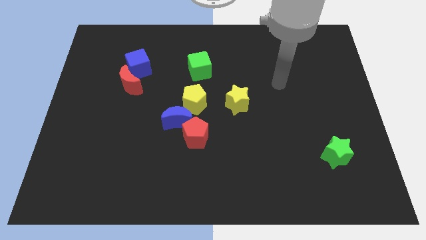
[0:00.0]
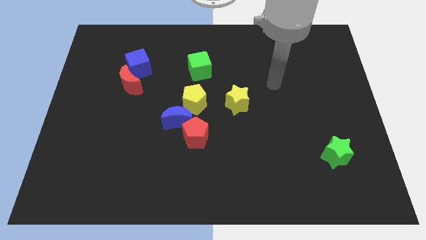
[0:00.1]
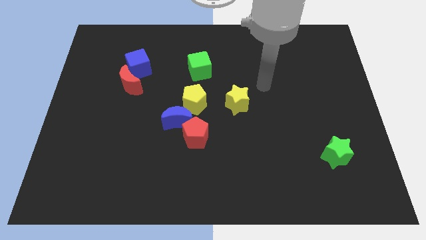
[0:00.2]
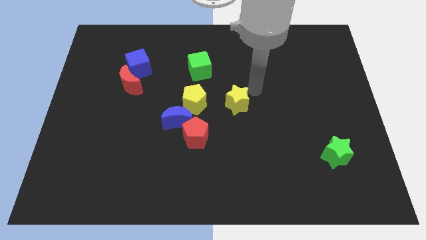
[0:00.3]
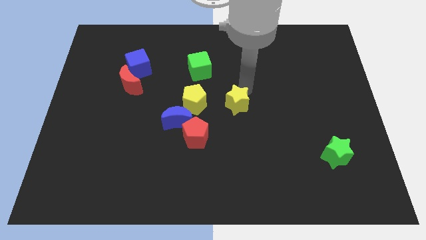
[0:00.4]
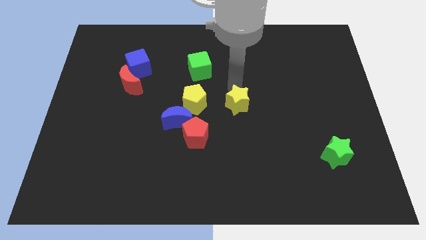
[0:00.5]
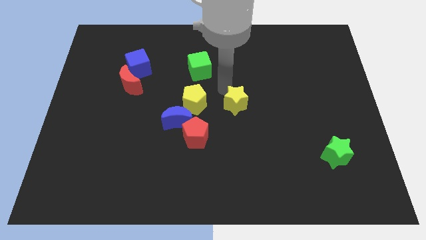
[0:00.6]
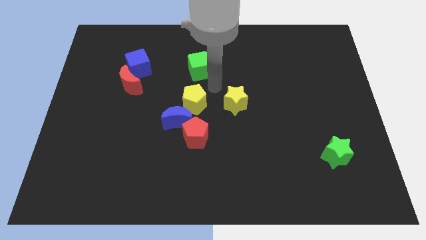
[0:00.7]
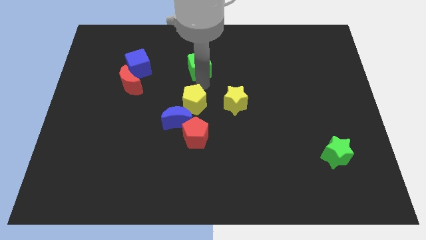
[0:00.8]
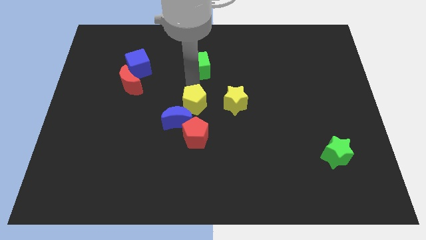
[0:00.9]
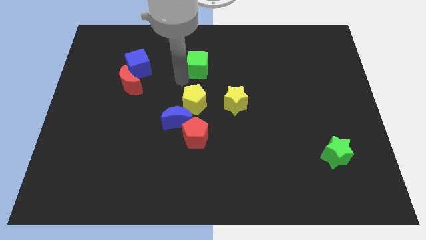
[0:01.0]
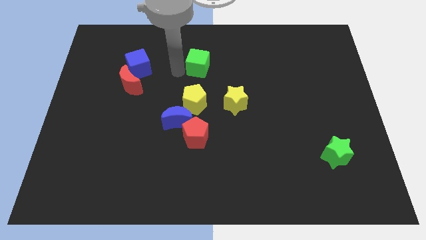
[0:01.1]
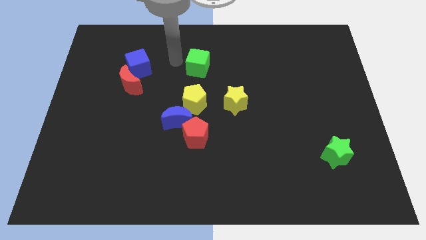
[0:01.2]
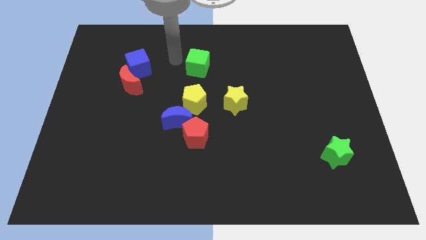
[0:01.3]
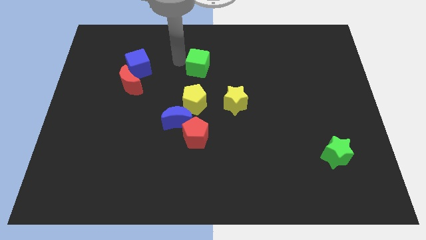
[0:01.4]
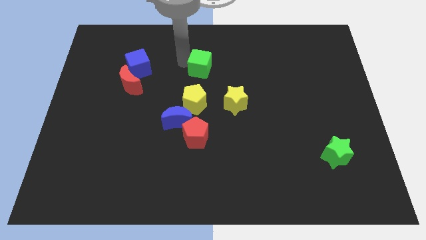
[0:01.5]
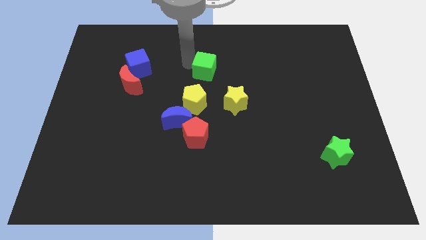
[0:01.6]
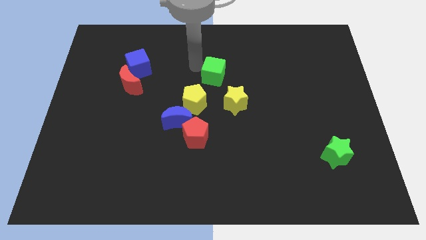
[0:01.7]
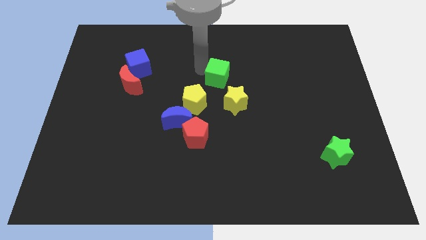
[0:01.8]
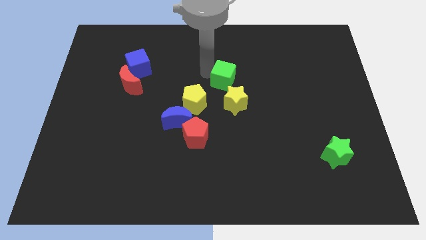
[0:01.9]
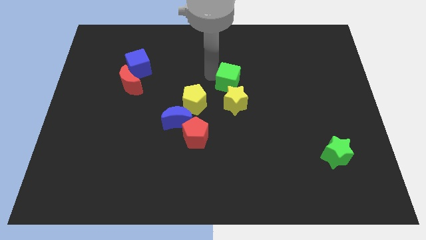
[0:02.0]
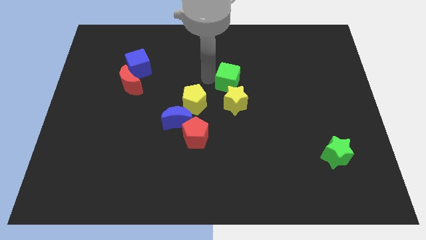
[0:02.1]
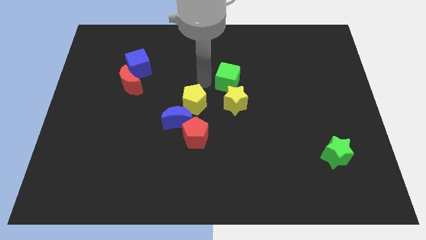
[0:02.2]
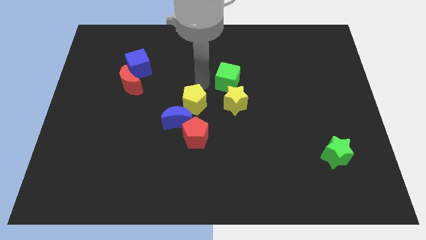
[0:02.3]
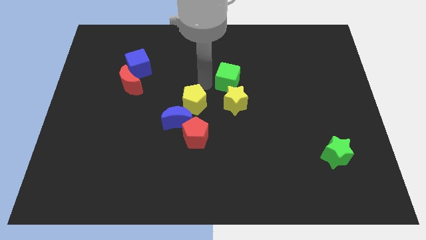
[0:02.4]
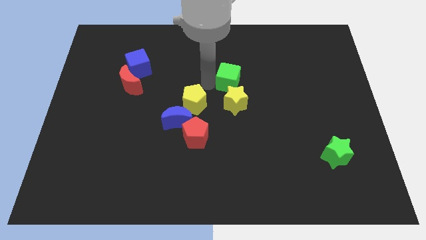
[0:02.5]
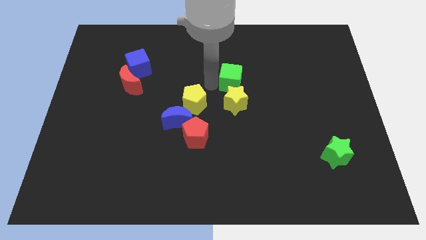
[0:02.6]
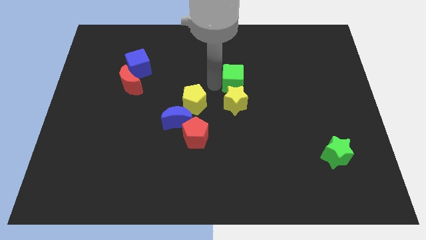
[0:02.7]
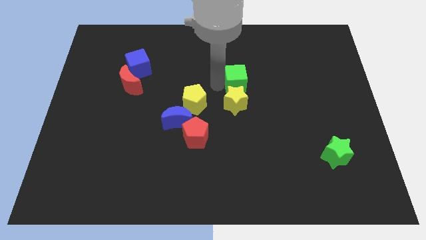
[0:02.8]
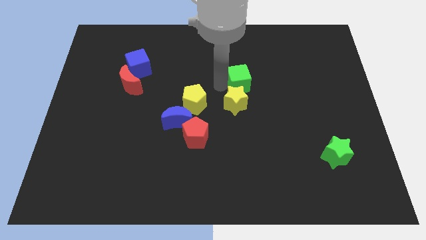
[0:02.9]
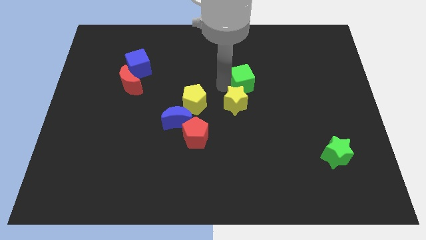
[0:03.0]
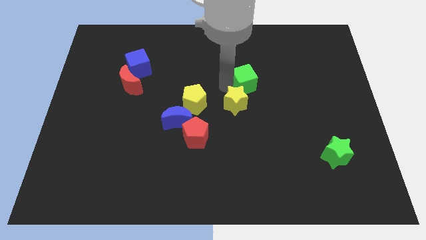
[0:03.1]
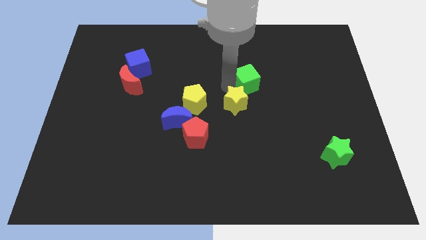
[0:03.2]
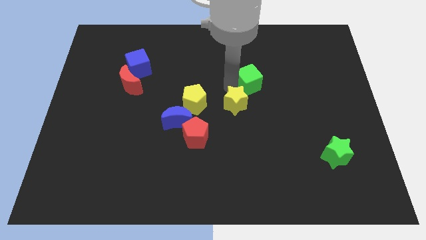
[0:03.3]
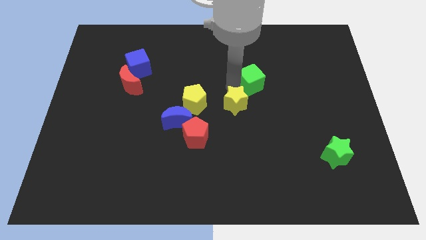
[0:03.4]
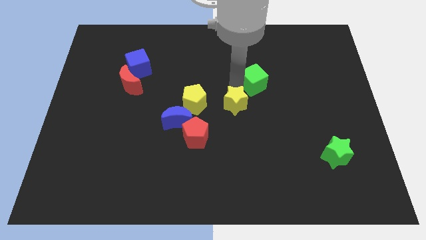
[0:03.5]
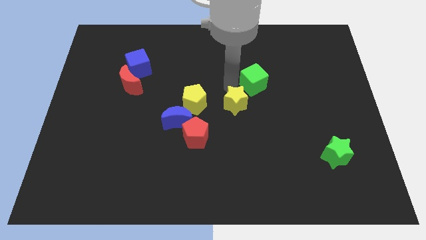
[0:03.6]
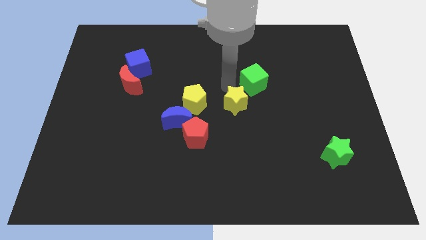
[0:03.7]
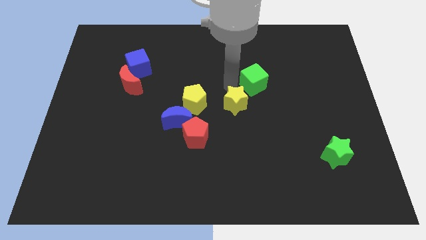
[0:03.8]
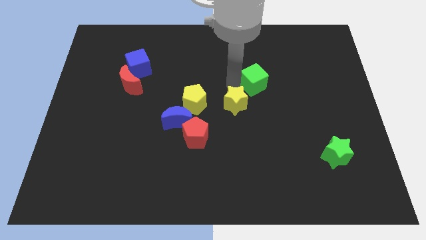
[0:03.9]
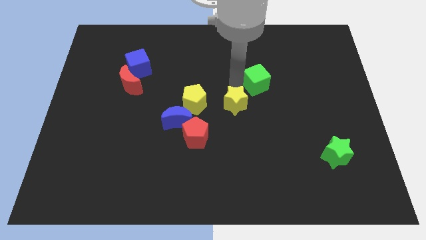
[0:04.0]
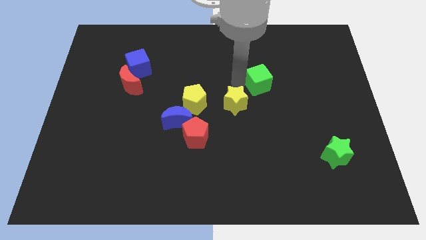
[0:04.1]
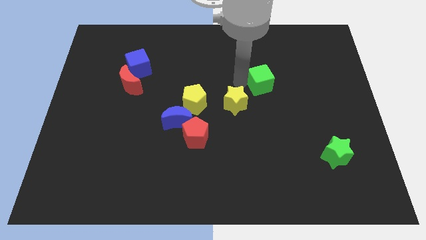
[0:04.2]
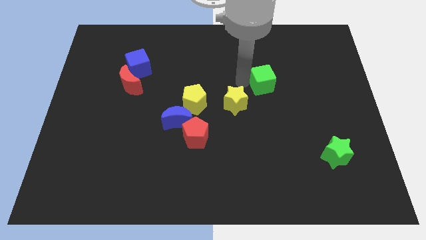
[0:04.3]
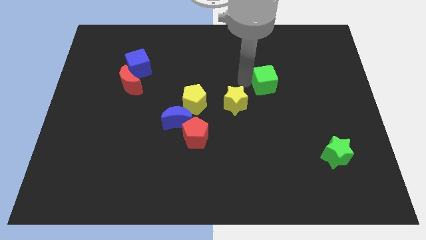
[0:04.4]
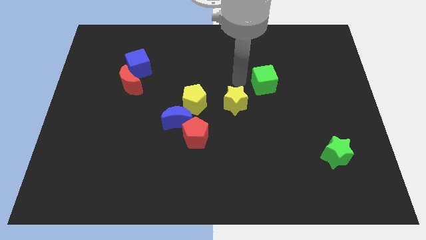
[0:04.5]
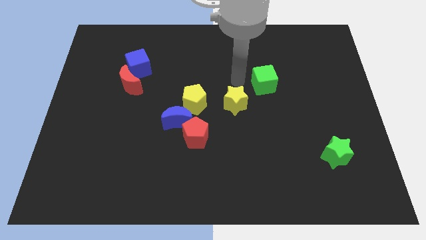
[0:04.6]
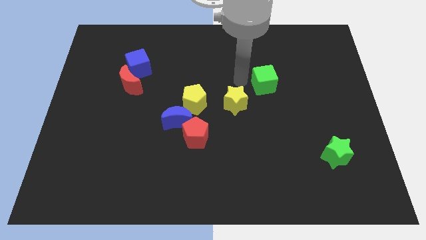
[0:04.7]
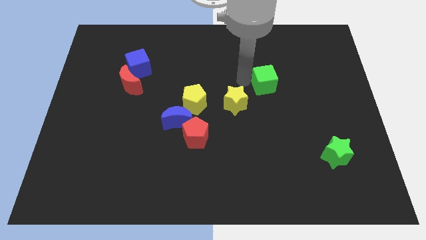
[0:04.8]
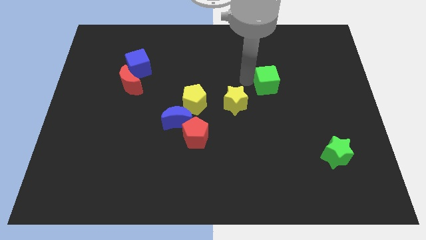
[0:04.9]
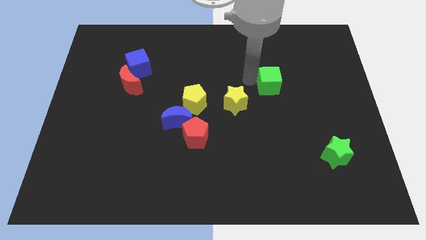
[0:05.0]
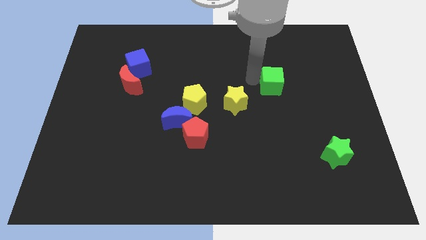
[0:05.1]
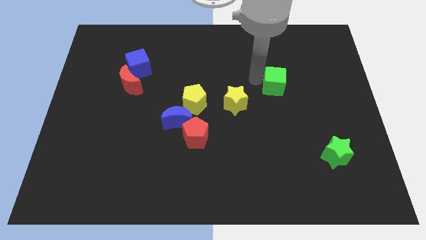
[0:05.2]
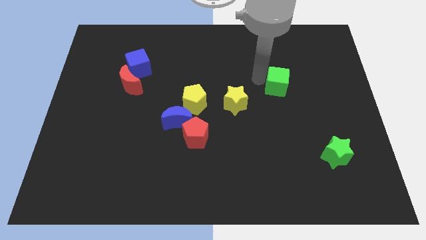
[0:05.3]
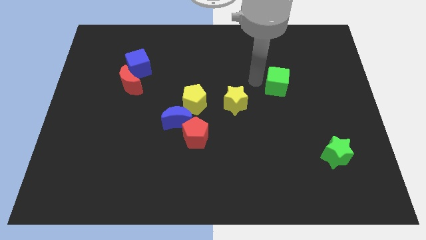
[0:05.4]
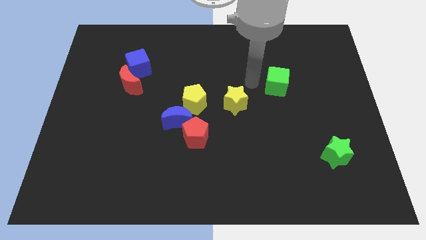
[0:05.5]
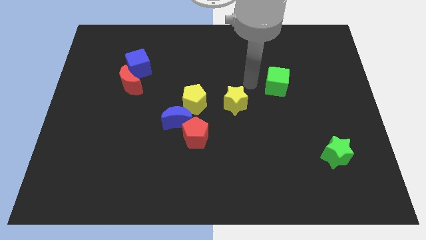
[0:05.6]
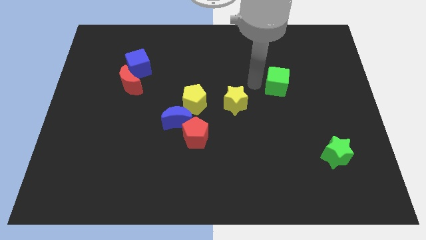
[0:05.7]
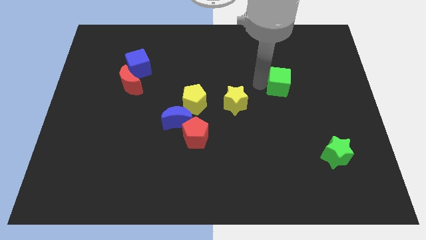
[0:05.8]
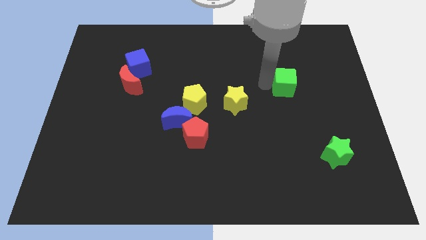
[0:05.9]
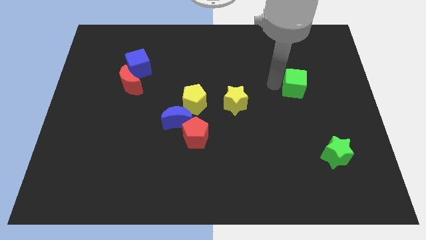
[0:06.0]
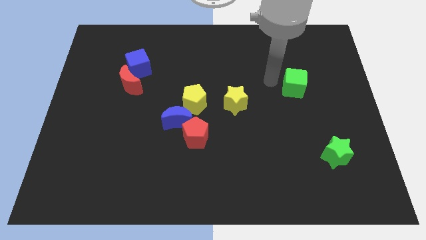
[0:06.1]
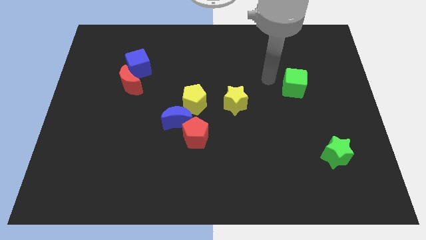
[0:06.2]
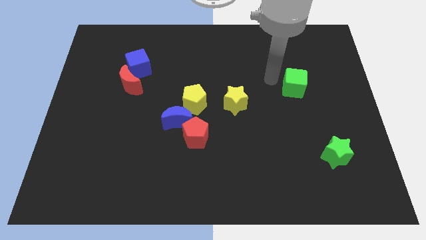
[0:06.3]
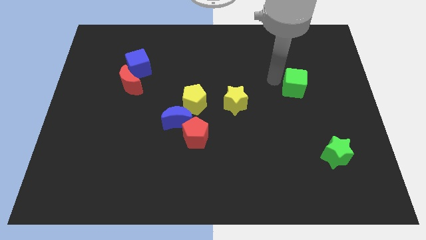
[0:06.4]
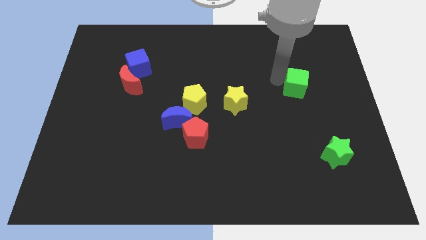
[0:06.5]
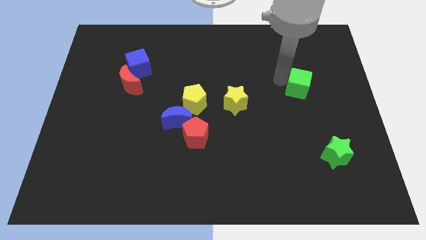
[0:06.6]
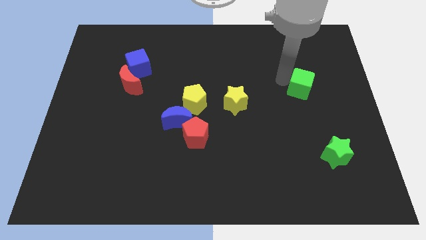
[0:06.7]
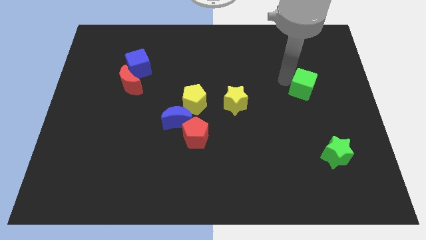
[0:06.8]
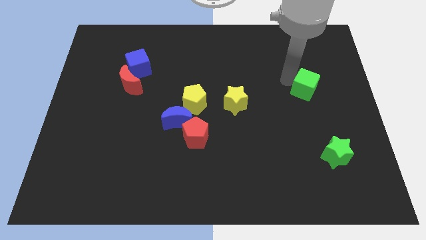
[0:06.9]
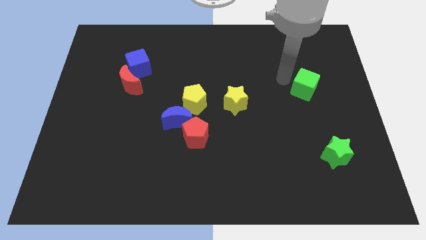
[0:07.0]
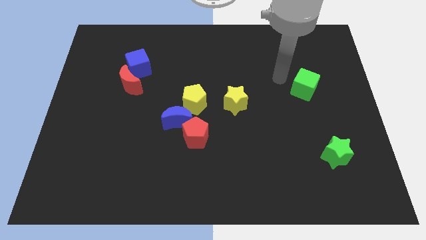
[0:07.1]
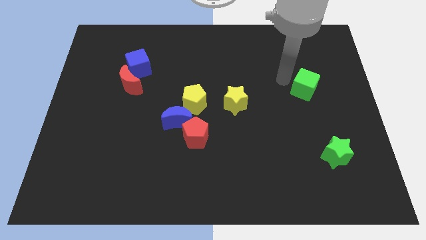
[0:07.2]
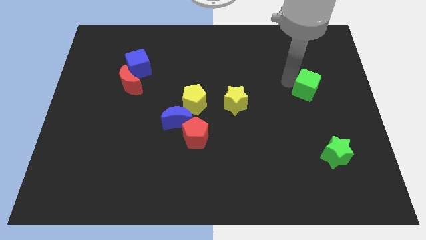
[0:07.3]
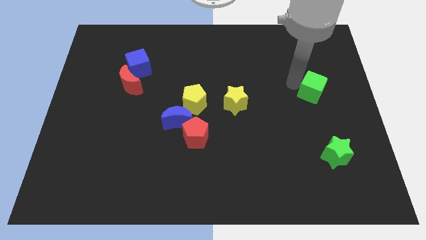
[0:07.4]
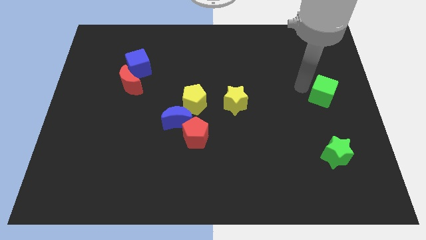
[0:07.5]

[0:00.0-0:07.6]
slide the green cube to the right side of the board
